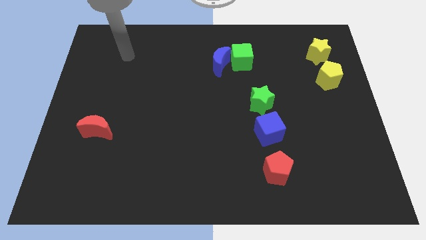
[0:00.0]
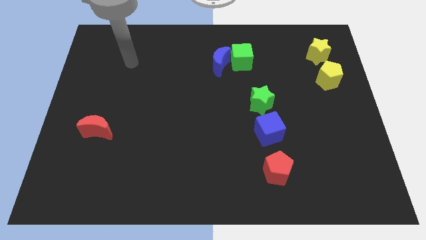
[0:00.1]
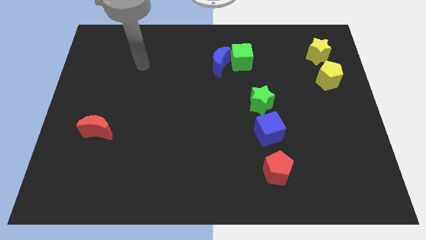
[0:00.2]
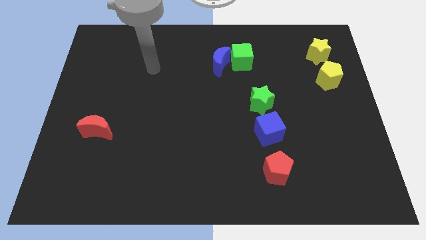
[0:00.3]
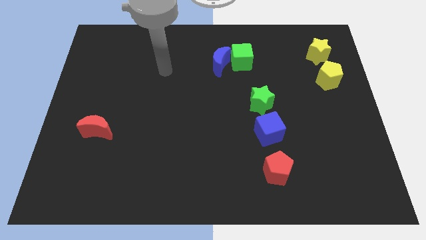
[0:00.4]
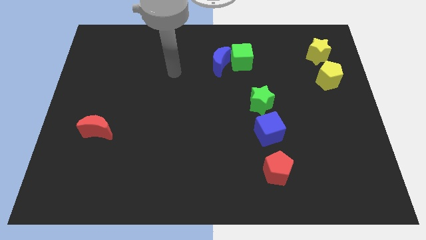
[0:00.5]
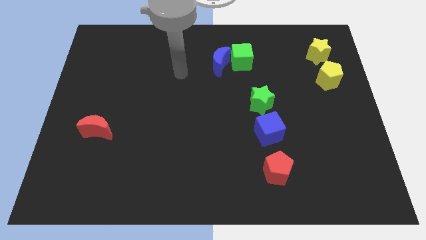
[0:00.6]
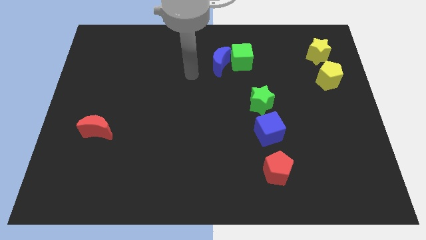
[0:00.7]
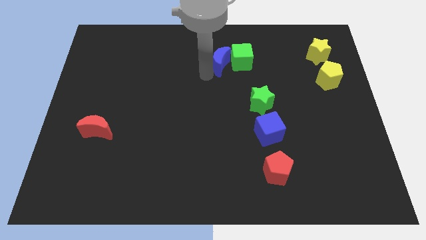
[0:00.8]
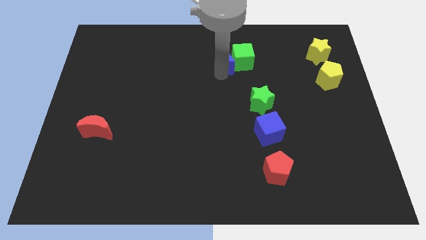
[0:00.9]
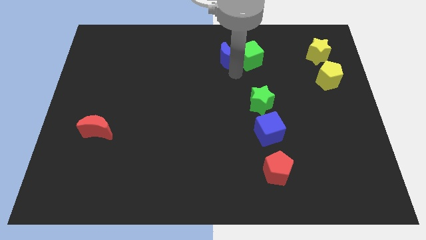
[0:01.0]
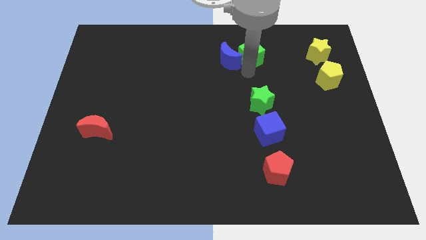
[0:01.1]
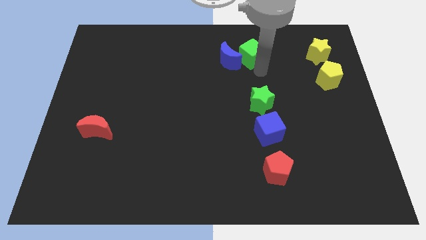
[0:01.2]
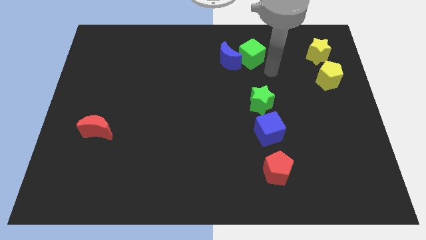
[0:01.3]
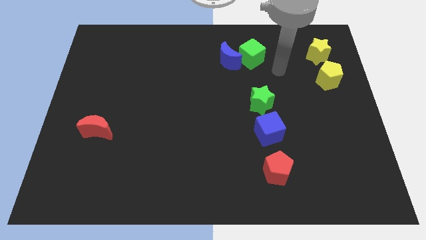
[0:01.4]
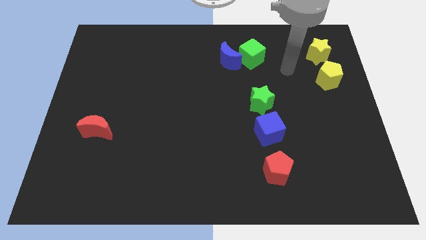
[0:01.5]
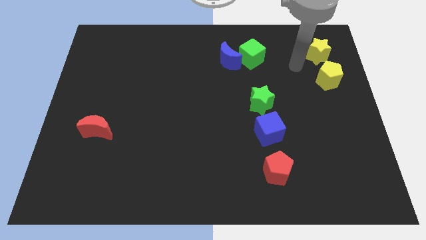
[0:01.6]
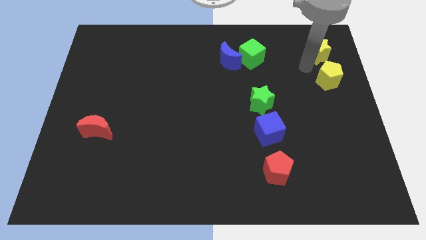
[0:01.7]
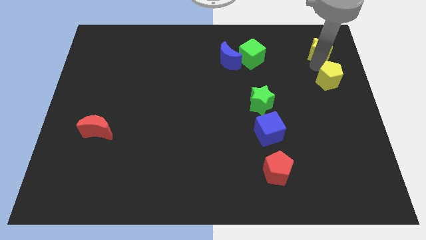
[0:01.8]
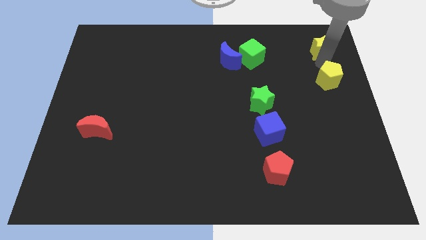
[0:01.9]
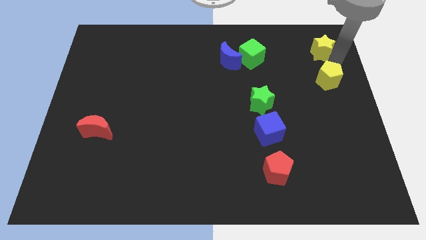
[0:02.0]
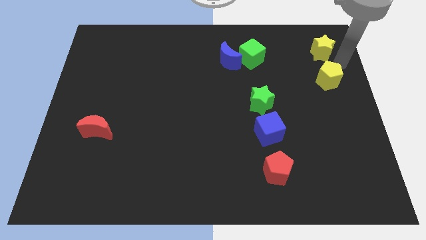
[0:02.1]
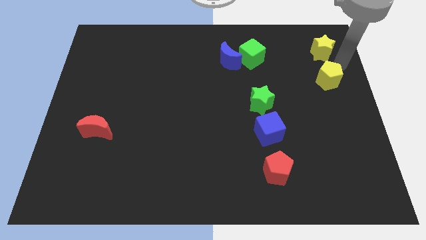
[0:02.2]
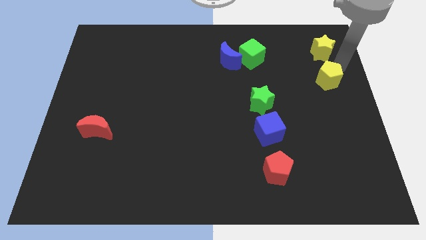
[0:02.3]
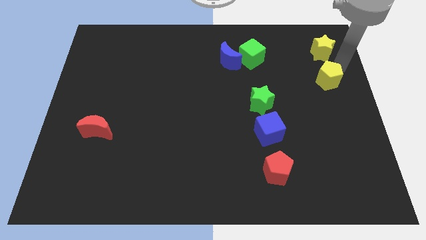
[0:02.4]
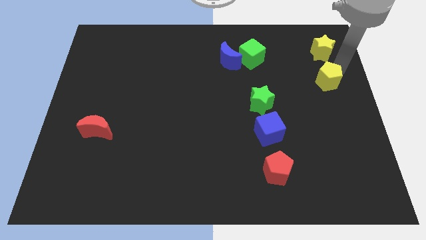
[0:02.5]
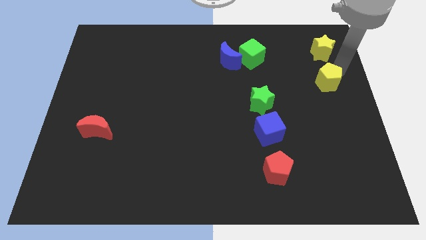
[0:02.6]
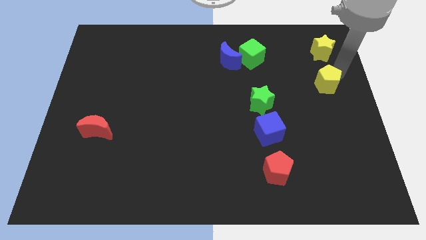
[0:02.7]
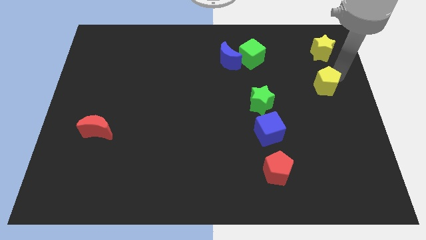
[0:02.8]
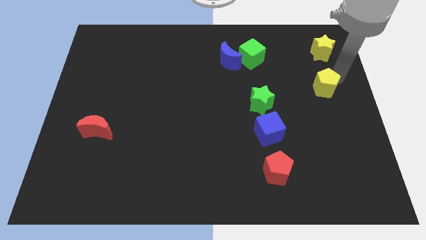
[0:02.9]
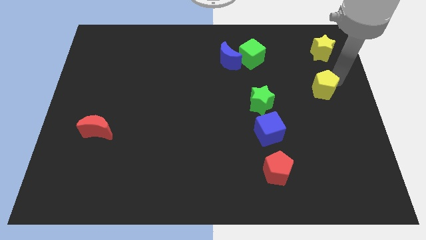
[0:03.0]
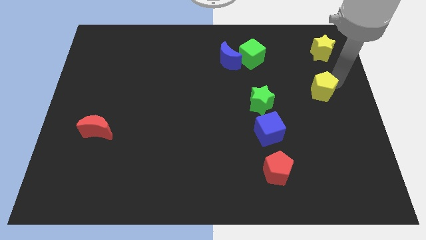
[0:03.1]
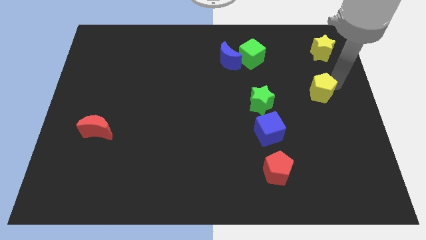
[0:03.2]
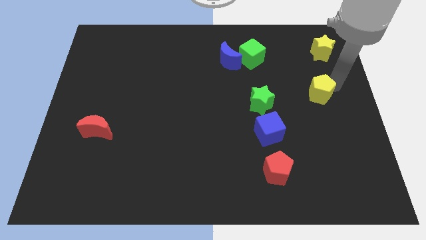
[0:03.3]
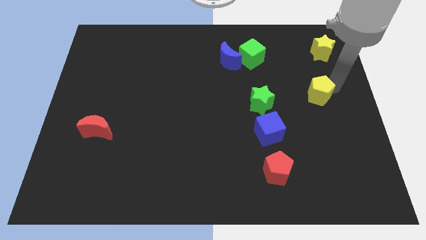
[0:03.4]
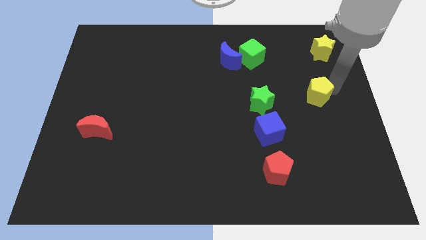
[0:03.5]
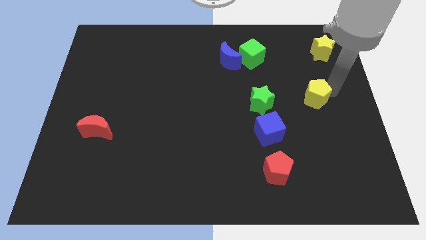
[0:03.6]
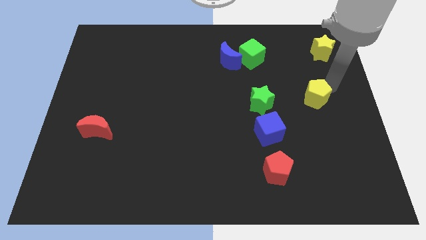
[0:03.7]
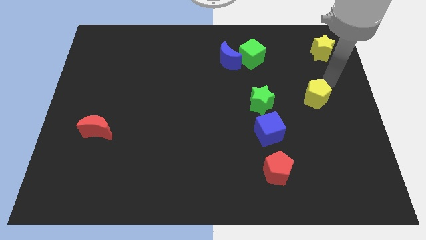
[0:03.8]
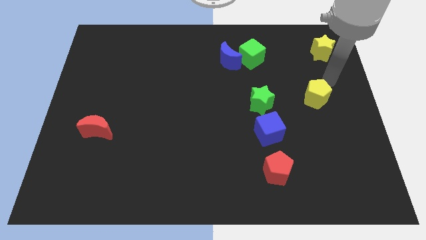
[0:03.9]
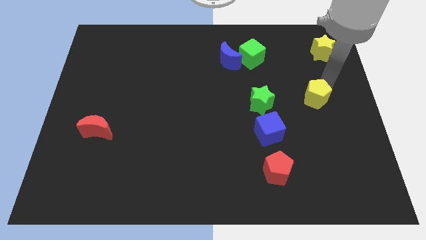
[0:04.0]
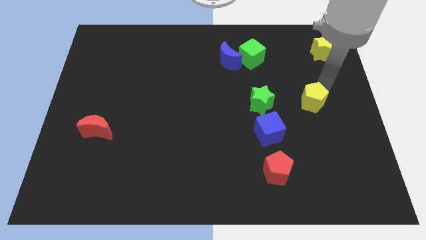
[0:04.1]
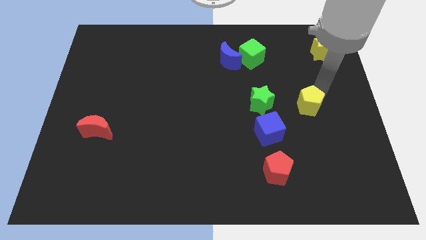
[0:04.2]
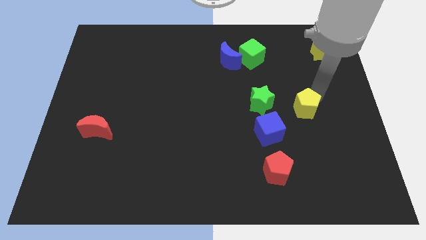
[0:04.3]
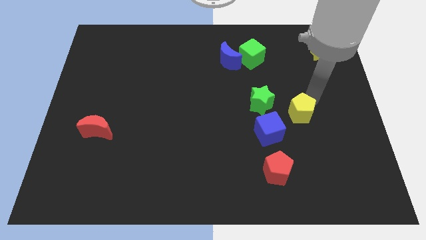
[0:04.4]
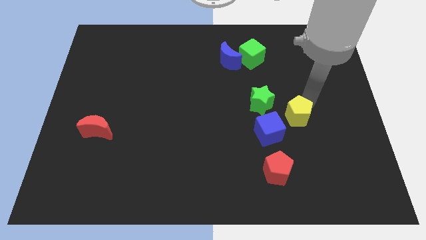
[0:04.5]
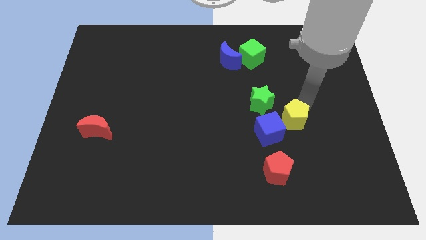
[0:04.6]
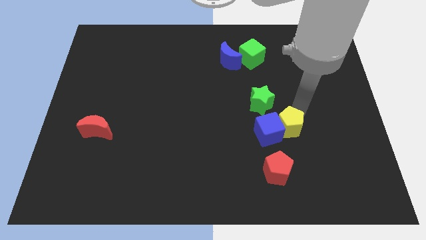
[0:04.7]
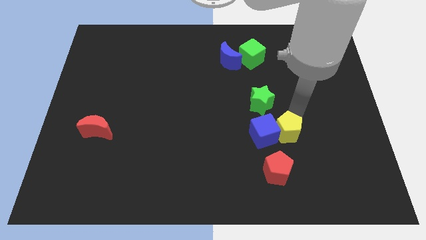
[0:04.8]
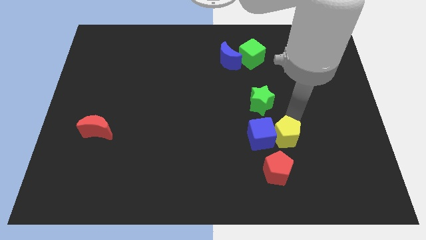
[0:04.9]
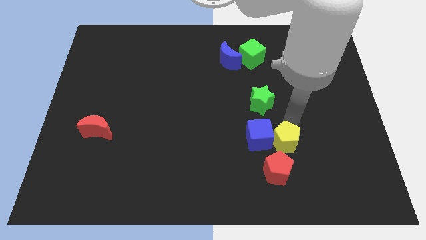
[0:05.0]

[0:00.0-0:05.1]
put the yellow pentagon to the bottom of the green star

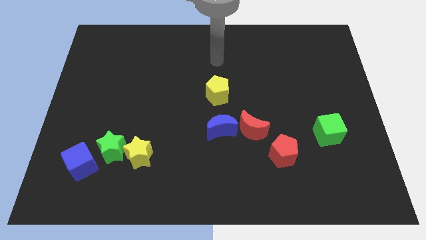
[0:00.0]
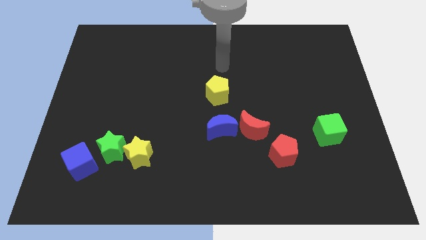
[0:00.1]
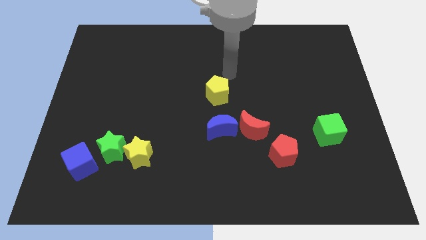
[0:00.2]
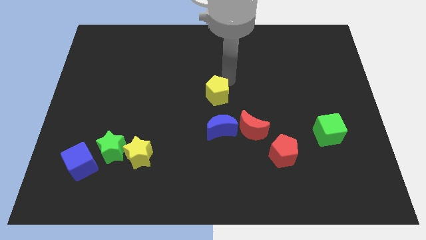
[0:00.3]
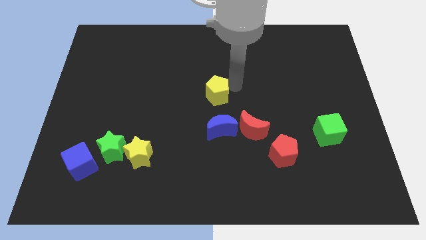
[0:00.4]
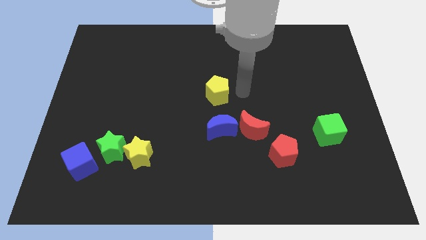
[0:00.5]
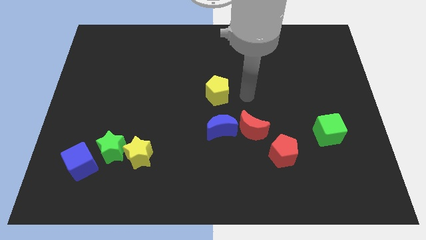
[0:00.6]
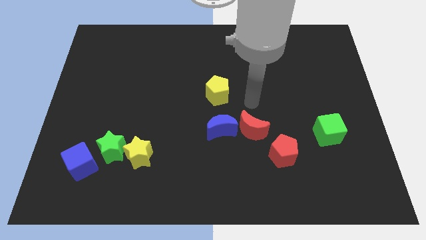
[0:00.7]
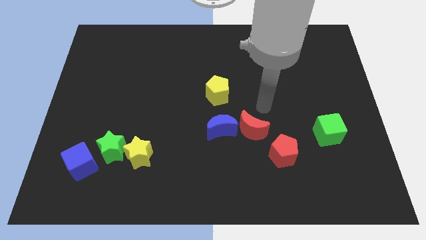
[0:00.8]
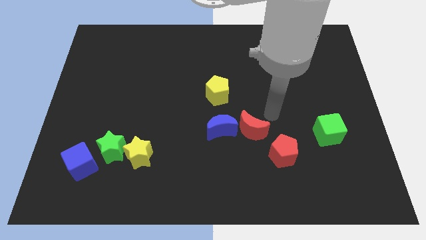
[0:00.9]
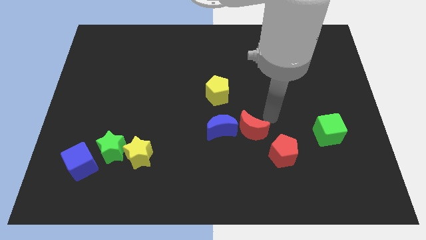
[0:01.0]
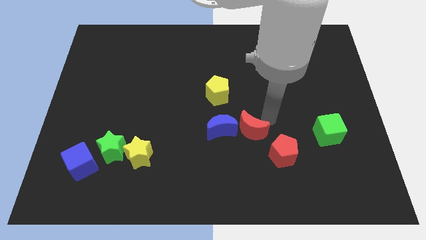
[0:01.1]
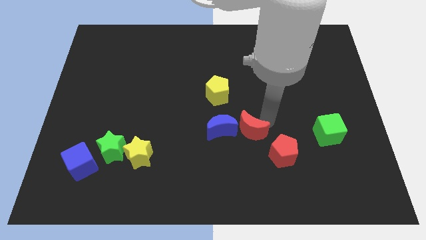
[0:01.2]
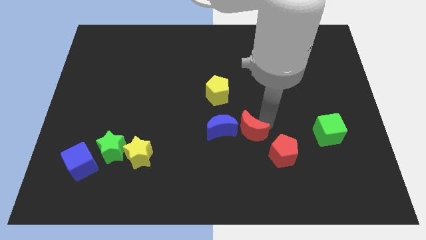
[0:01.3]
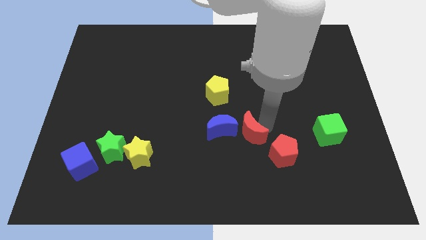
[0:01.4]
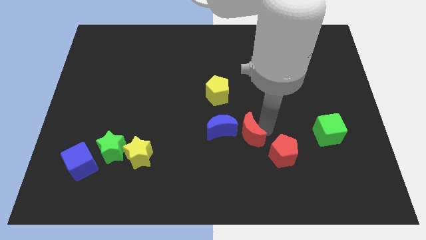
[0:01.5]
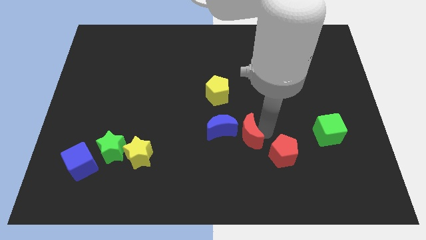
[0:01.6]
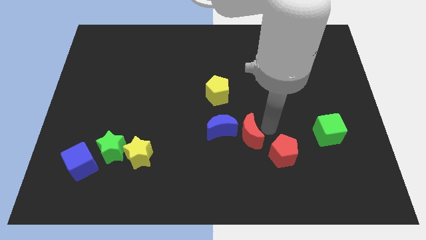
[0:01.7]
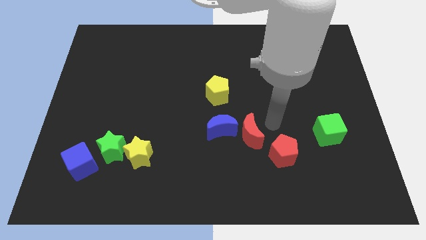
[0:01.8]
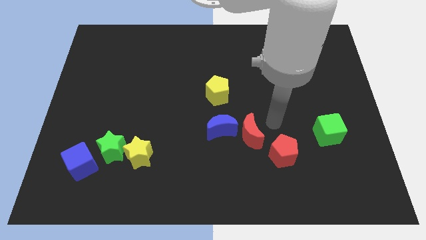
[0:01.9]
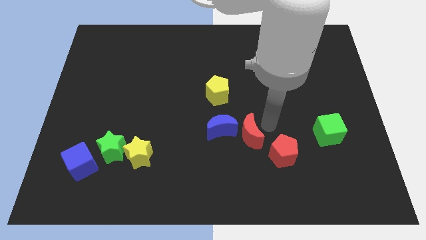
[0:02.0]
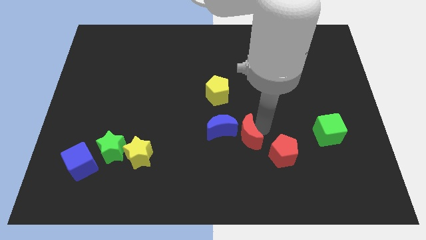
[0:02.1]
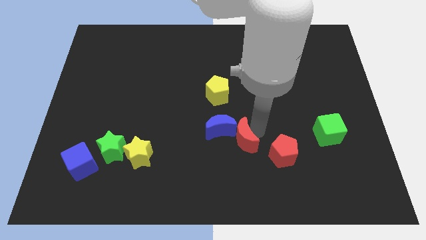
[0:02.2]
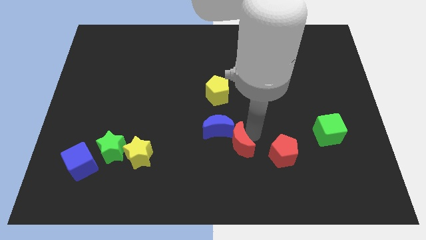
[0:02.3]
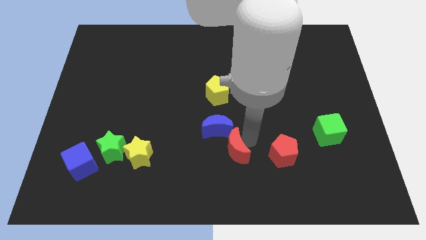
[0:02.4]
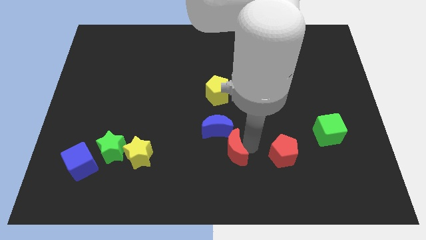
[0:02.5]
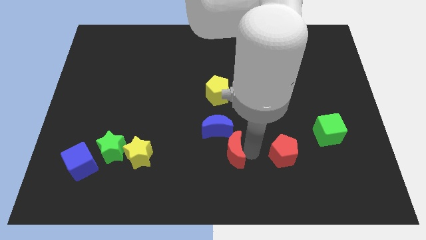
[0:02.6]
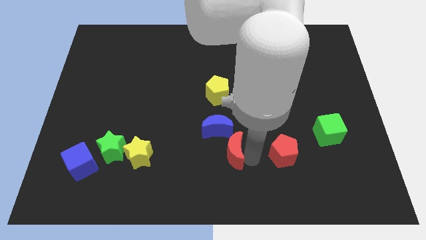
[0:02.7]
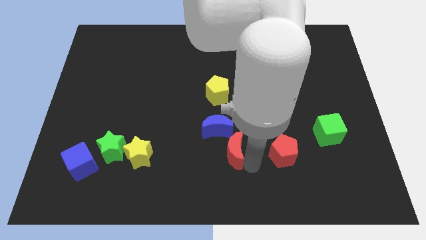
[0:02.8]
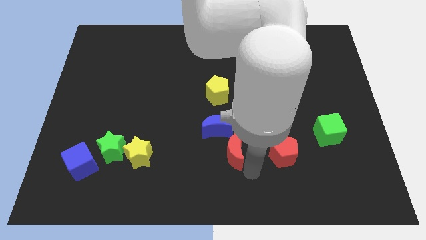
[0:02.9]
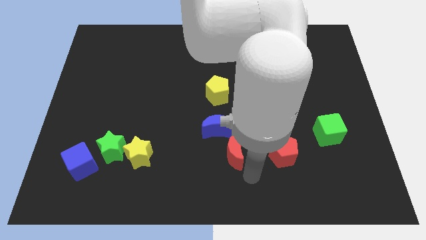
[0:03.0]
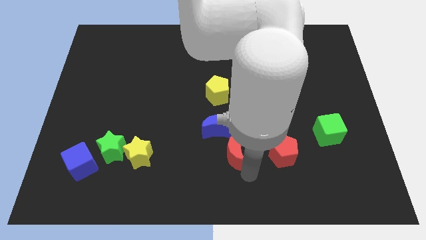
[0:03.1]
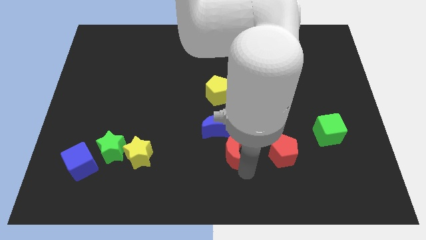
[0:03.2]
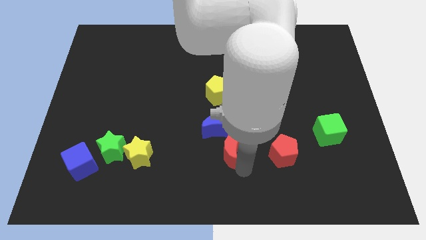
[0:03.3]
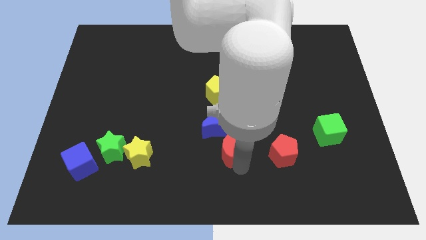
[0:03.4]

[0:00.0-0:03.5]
put the red moon below the yellow pentagon
